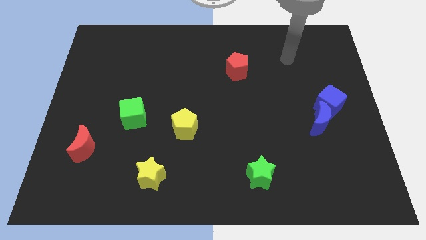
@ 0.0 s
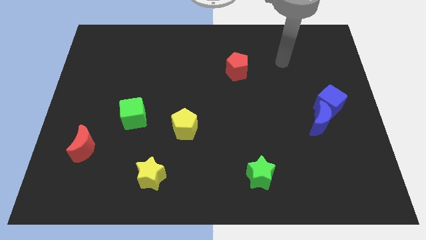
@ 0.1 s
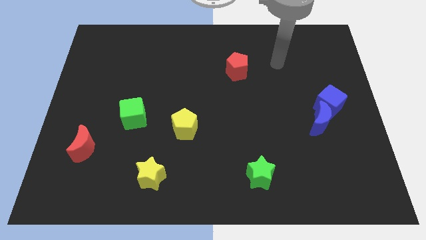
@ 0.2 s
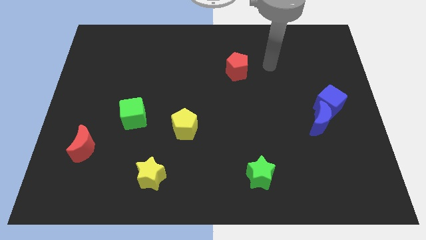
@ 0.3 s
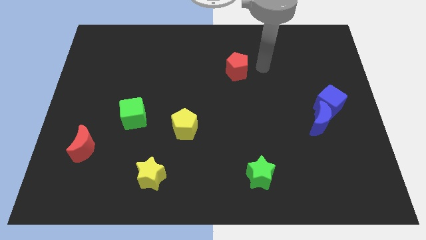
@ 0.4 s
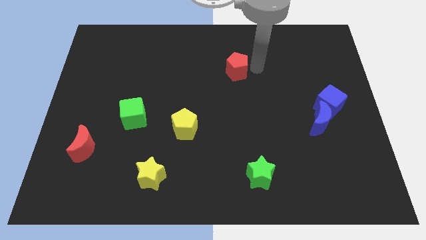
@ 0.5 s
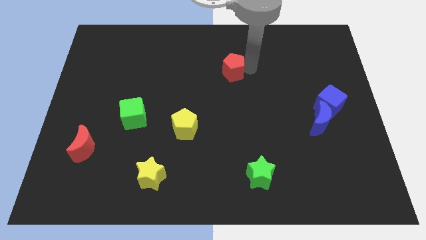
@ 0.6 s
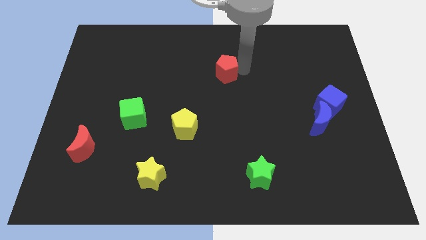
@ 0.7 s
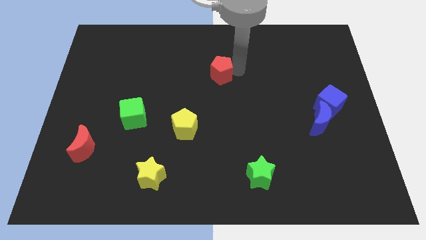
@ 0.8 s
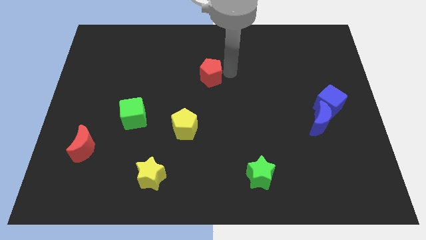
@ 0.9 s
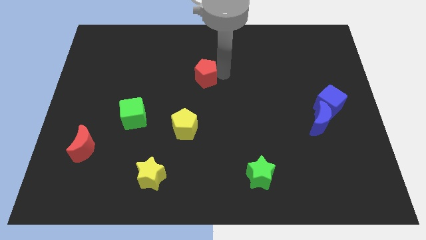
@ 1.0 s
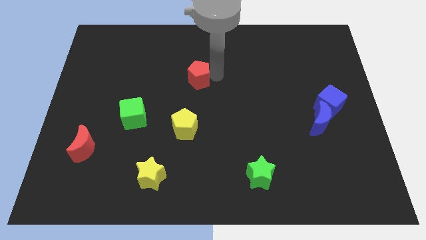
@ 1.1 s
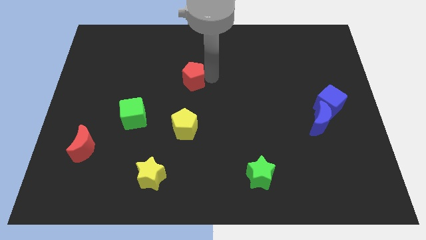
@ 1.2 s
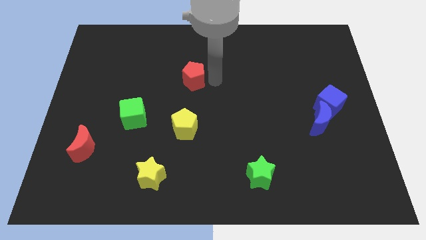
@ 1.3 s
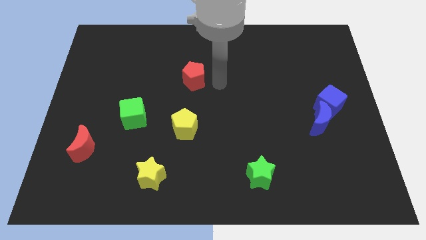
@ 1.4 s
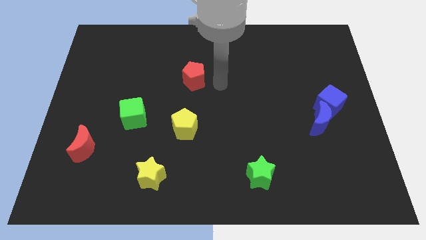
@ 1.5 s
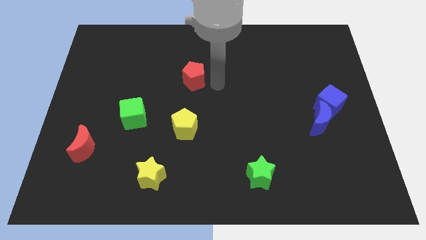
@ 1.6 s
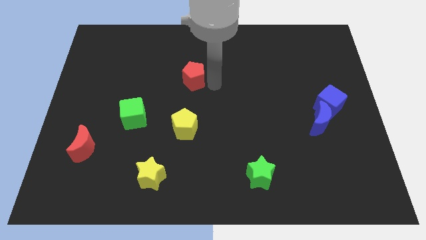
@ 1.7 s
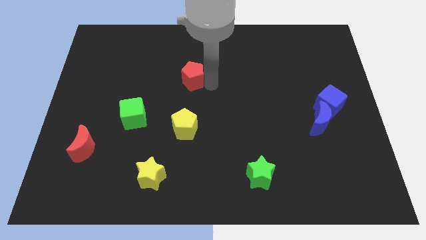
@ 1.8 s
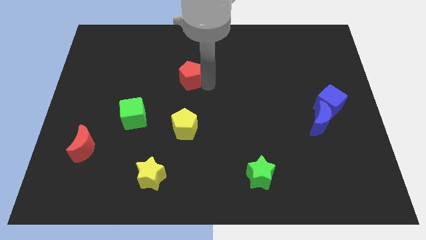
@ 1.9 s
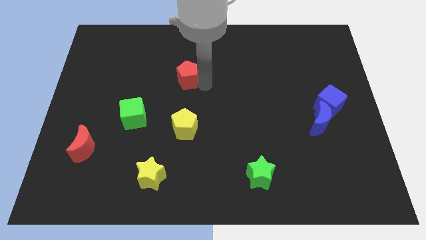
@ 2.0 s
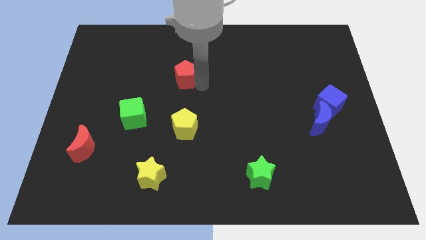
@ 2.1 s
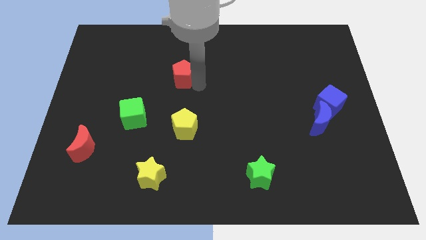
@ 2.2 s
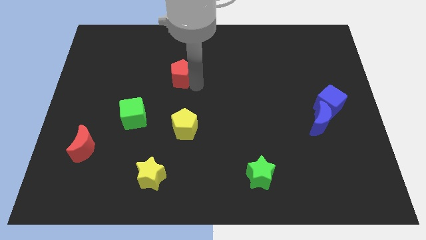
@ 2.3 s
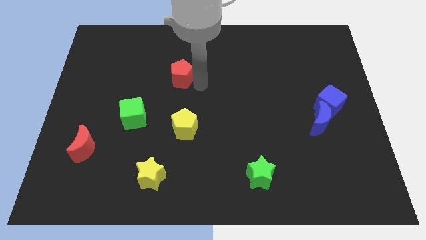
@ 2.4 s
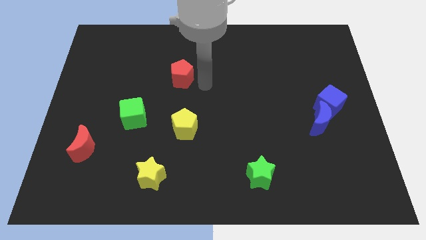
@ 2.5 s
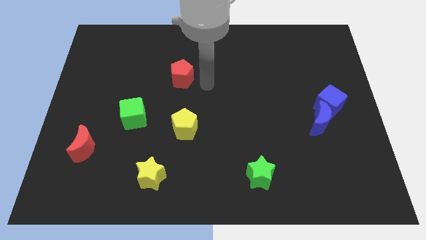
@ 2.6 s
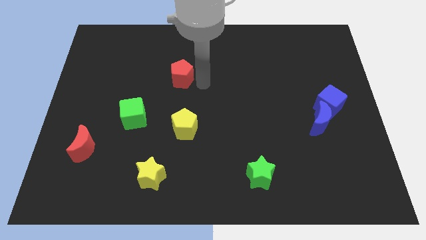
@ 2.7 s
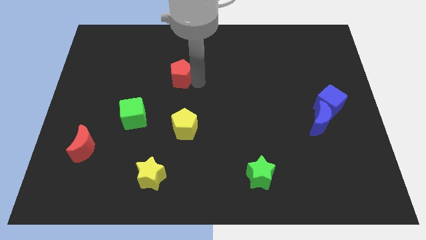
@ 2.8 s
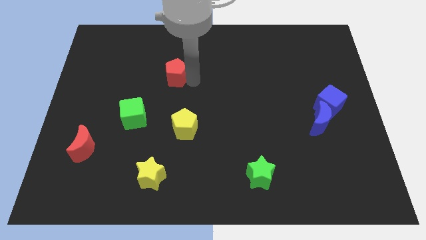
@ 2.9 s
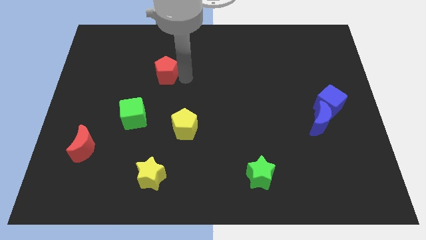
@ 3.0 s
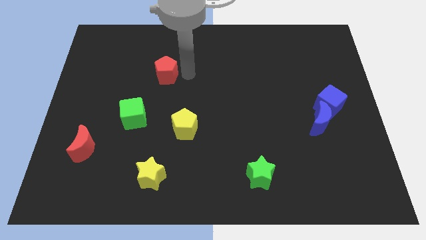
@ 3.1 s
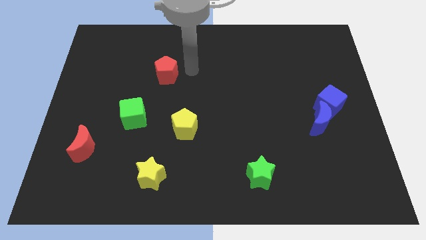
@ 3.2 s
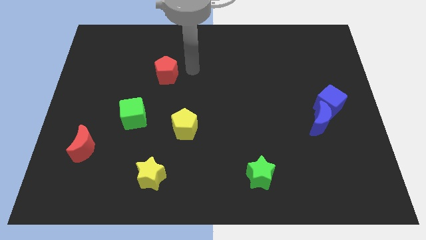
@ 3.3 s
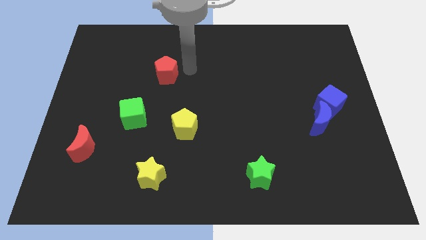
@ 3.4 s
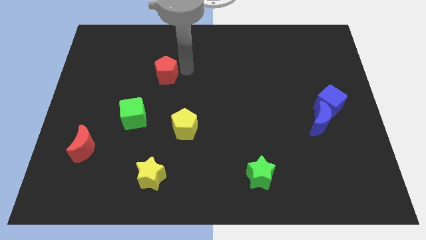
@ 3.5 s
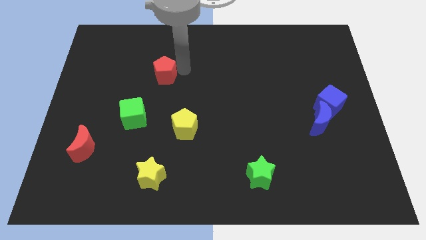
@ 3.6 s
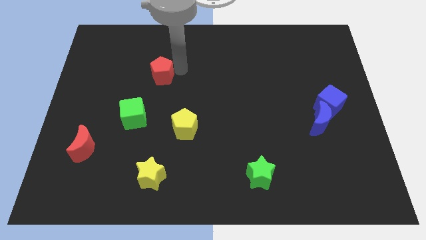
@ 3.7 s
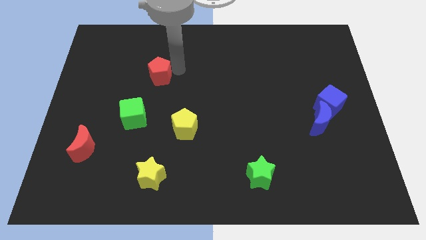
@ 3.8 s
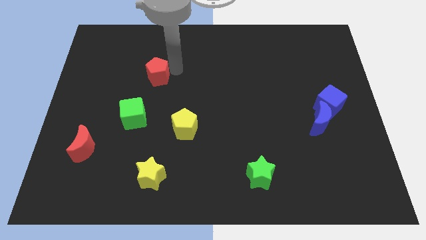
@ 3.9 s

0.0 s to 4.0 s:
move the red pentagon to the left

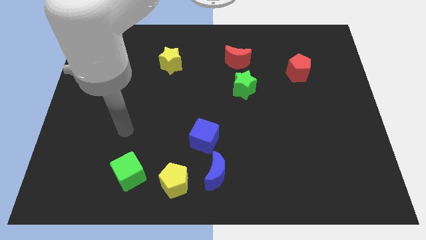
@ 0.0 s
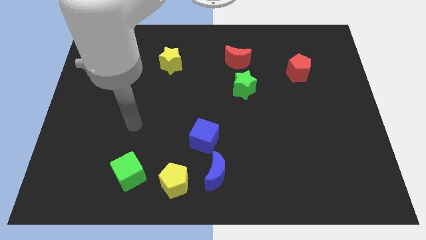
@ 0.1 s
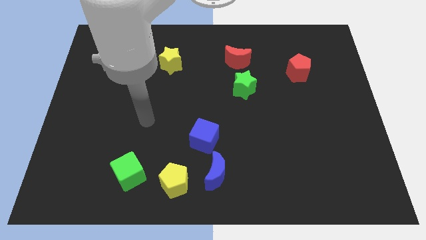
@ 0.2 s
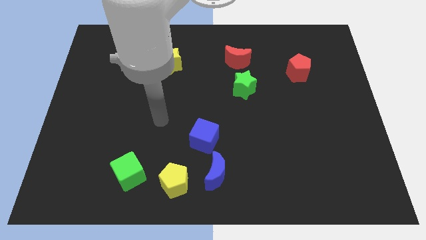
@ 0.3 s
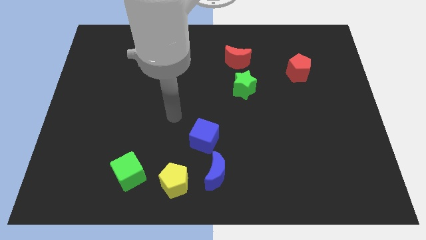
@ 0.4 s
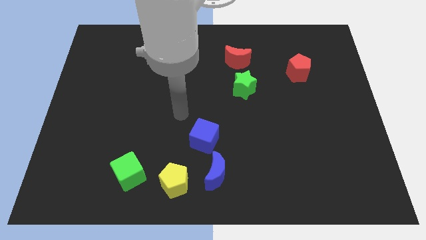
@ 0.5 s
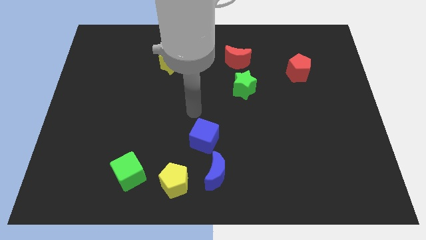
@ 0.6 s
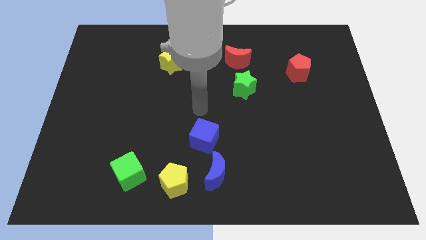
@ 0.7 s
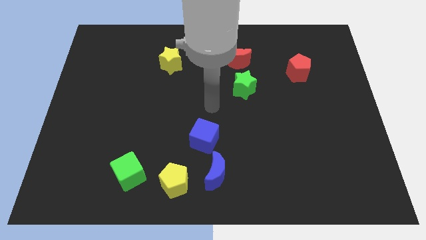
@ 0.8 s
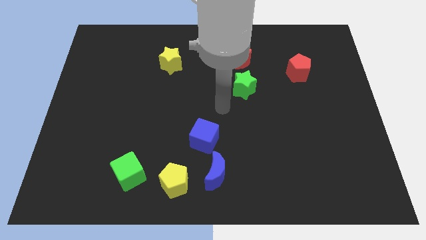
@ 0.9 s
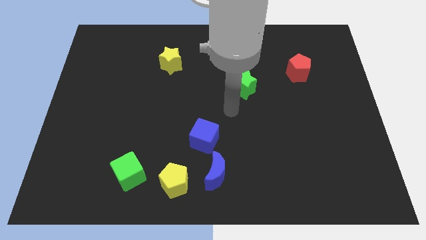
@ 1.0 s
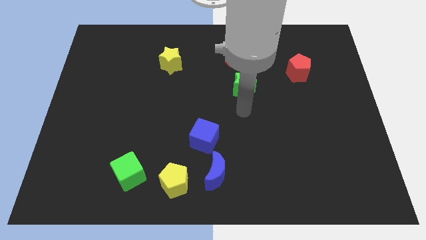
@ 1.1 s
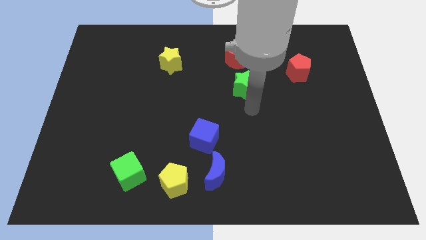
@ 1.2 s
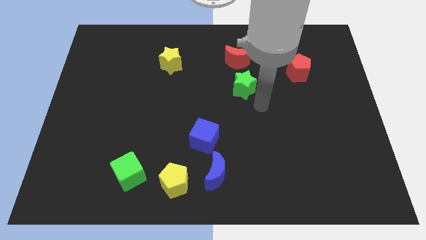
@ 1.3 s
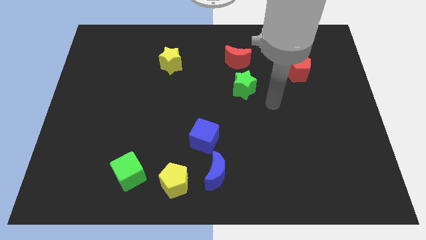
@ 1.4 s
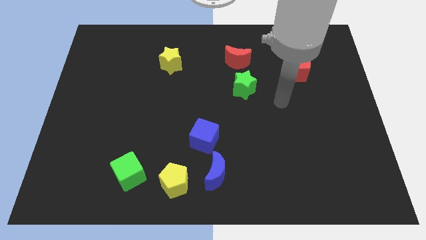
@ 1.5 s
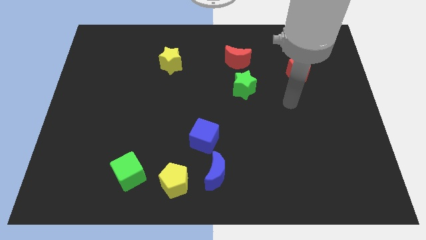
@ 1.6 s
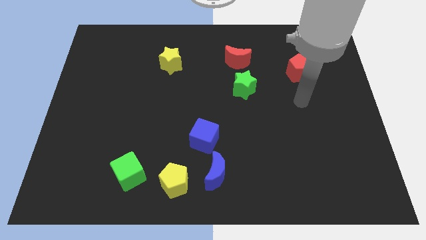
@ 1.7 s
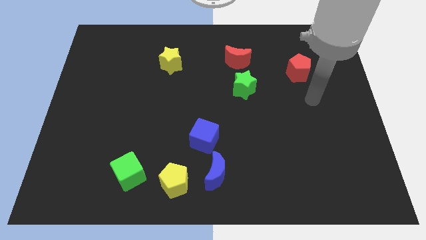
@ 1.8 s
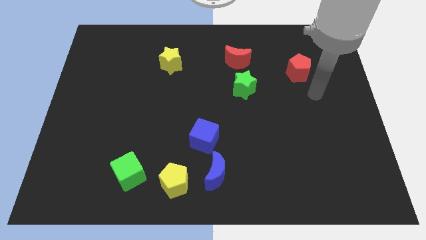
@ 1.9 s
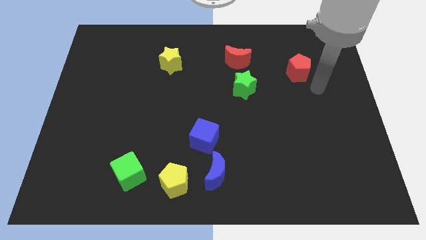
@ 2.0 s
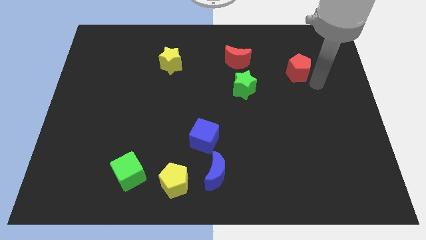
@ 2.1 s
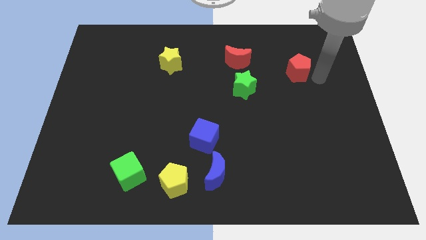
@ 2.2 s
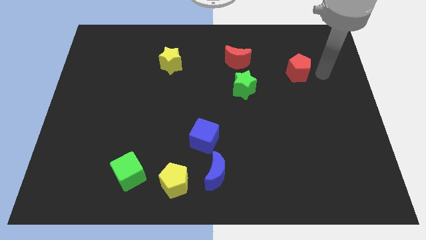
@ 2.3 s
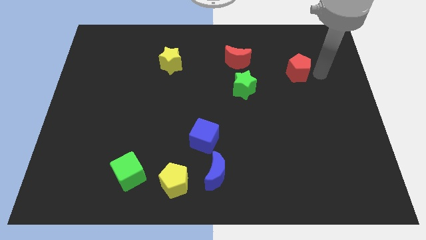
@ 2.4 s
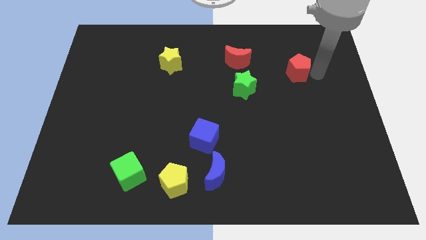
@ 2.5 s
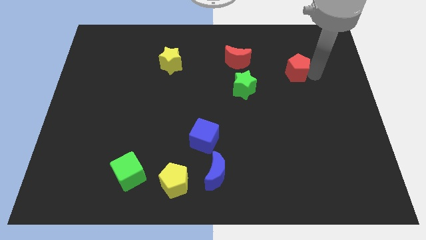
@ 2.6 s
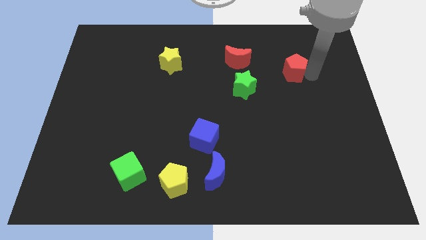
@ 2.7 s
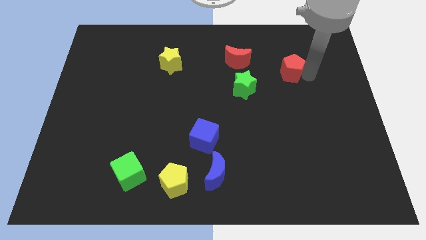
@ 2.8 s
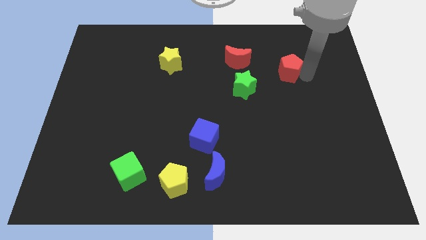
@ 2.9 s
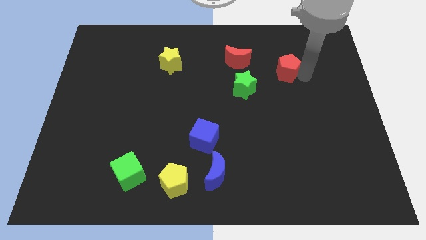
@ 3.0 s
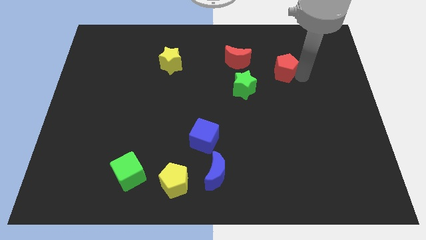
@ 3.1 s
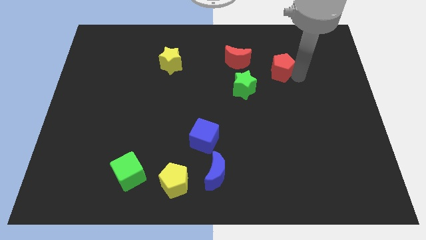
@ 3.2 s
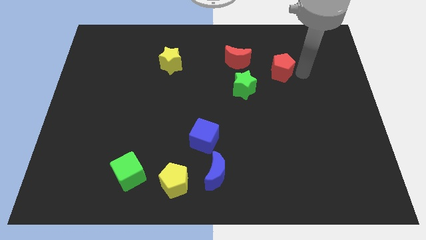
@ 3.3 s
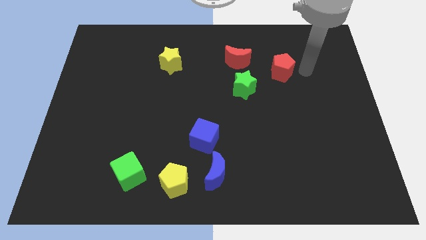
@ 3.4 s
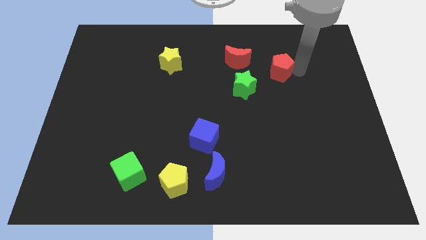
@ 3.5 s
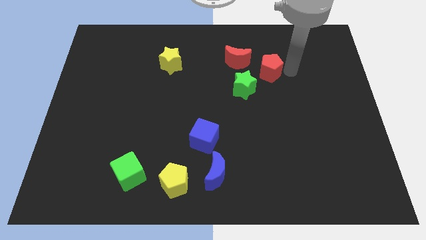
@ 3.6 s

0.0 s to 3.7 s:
slide the red pentagon to the left somewhat

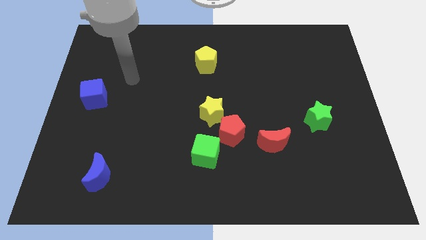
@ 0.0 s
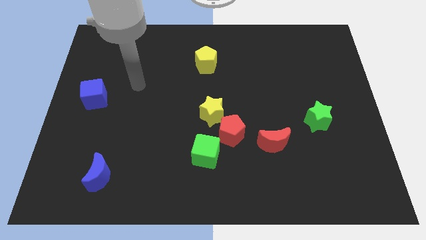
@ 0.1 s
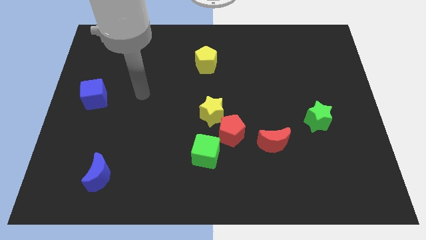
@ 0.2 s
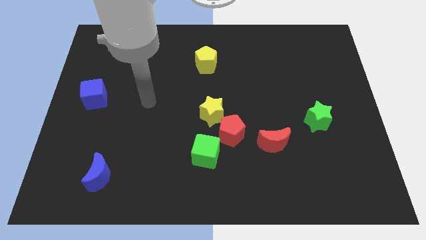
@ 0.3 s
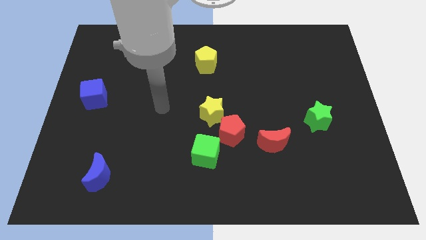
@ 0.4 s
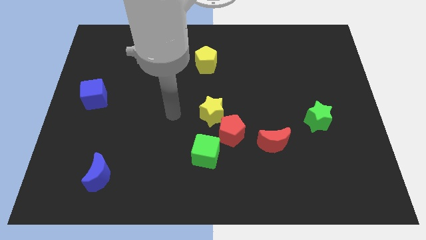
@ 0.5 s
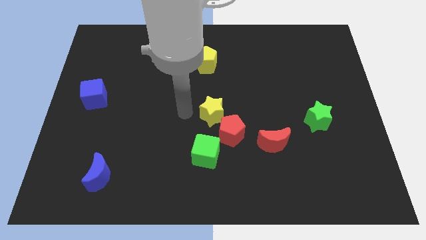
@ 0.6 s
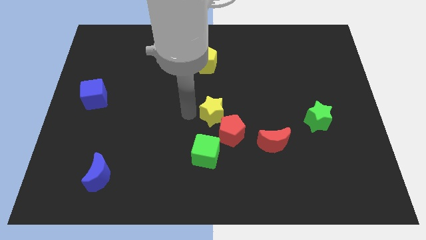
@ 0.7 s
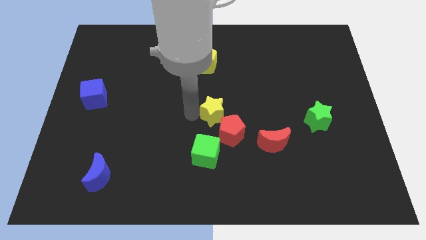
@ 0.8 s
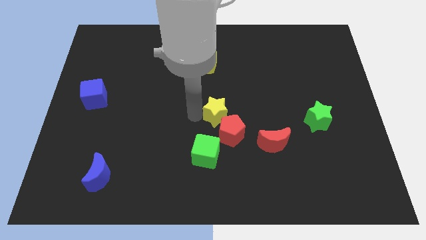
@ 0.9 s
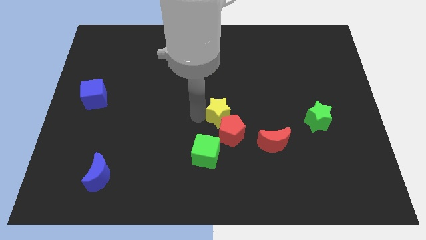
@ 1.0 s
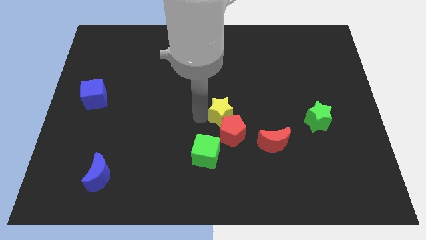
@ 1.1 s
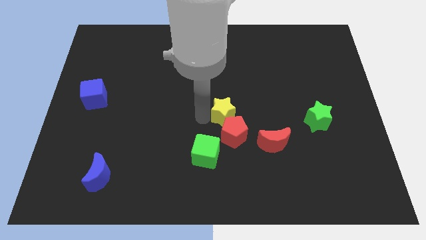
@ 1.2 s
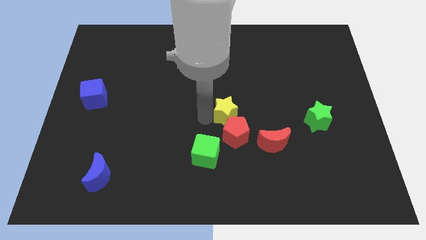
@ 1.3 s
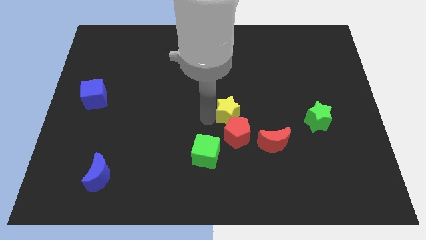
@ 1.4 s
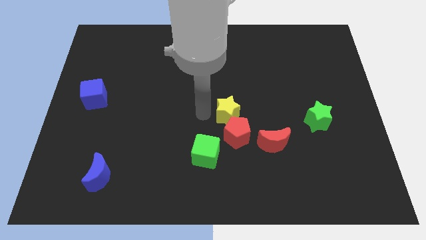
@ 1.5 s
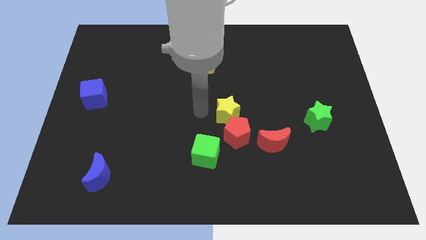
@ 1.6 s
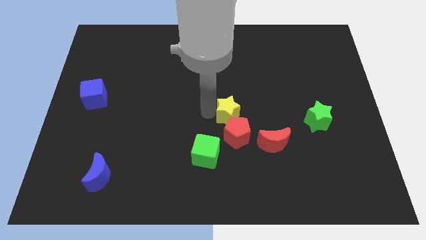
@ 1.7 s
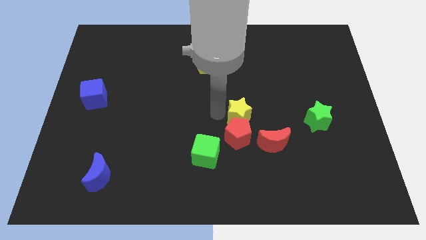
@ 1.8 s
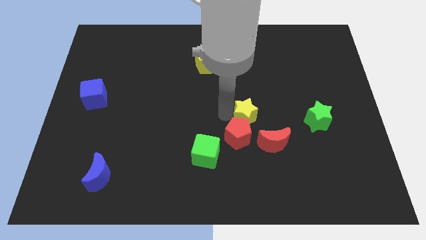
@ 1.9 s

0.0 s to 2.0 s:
slightly push the yellow star to the right
